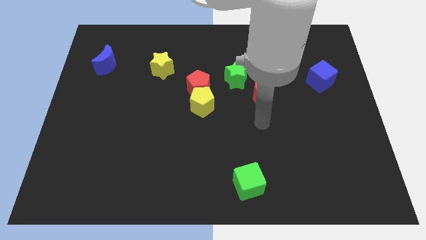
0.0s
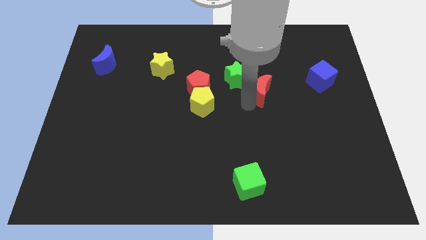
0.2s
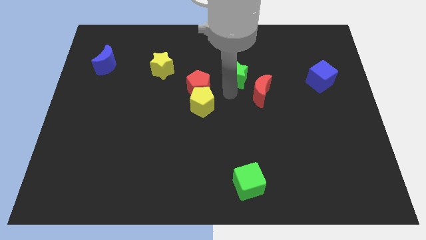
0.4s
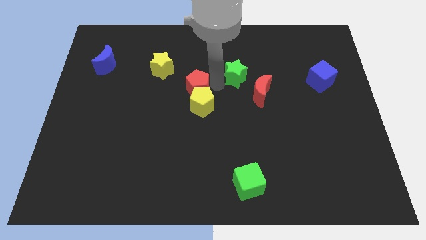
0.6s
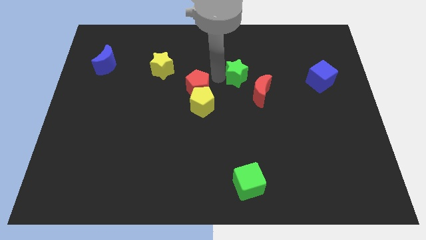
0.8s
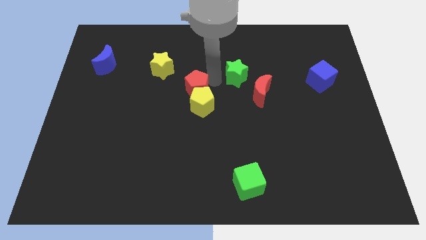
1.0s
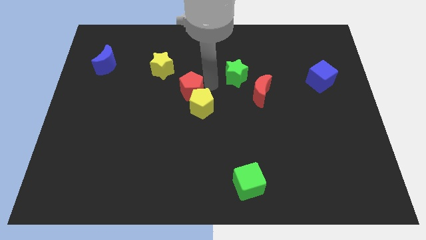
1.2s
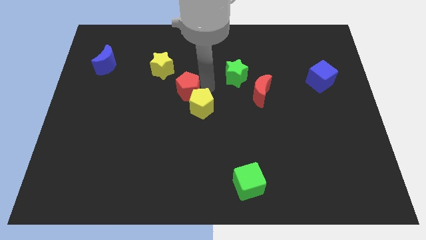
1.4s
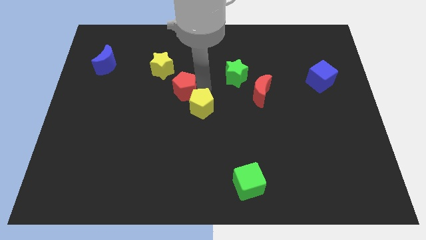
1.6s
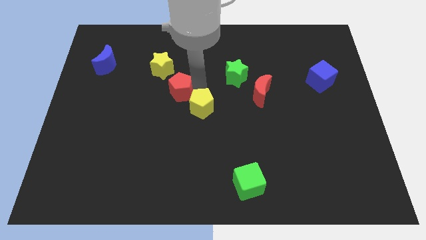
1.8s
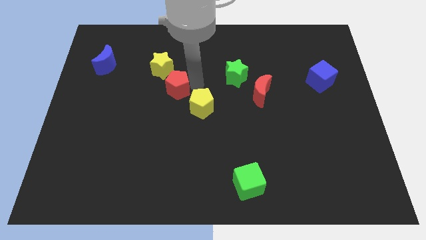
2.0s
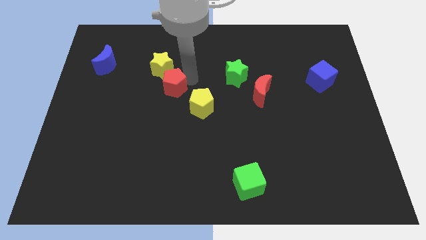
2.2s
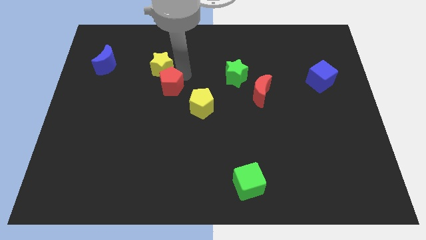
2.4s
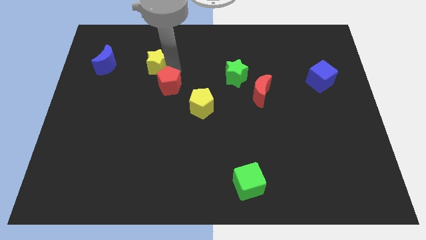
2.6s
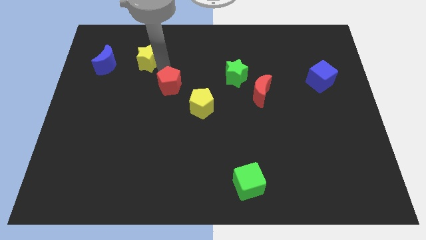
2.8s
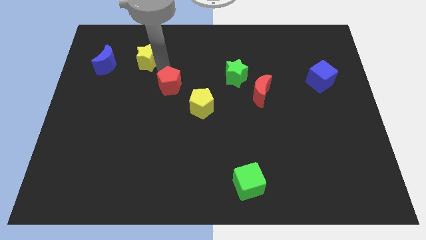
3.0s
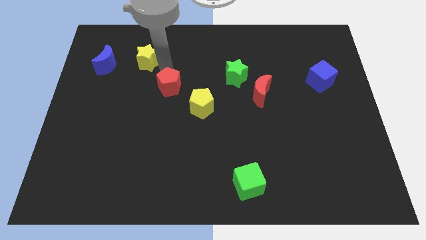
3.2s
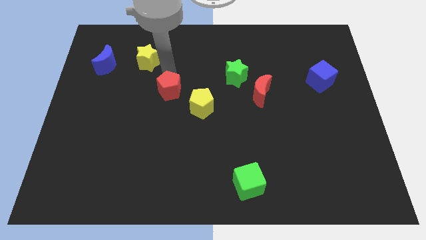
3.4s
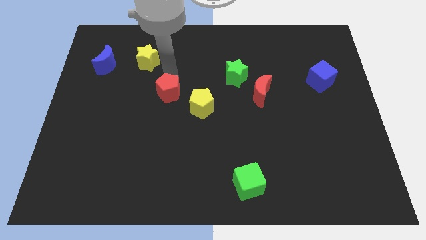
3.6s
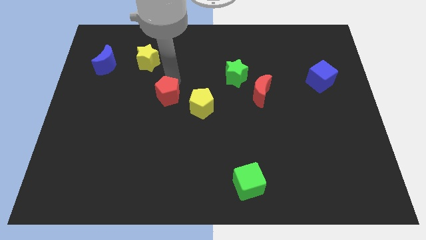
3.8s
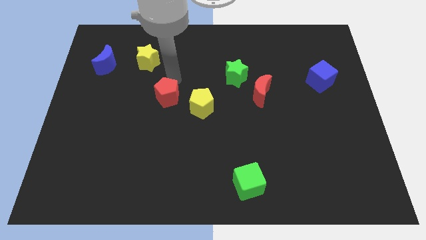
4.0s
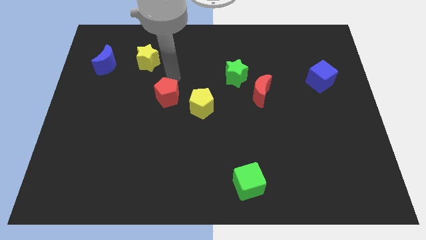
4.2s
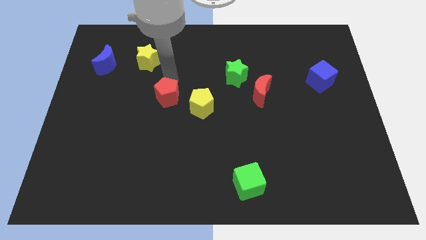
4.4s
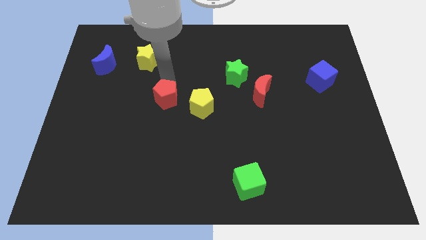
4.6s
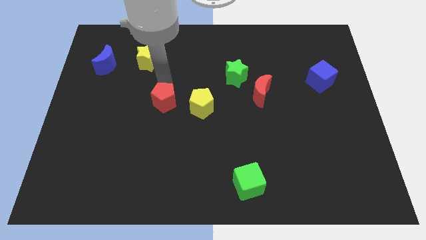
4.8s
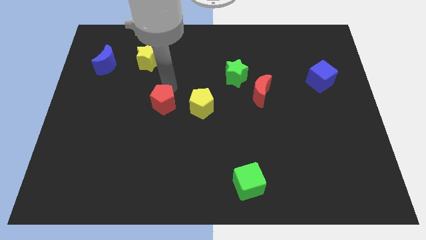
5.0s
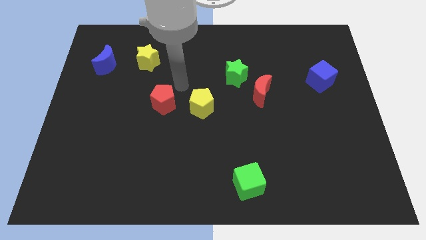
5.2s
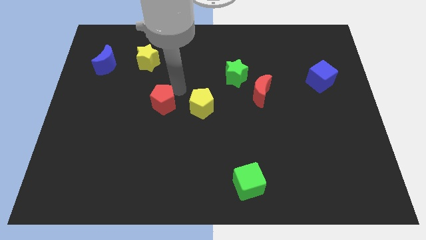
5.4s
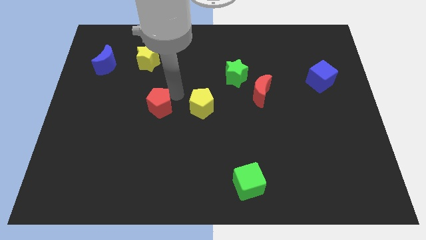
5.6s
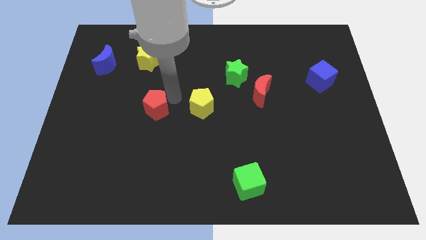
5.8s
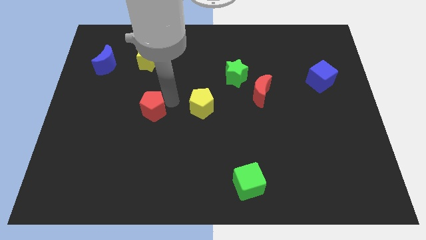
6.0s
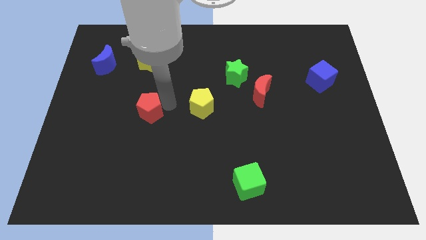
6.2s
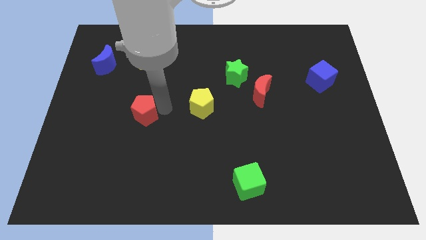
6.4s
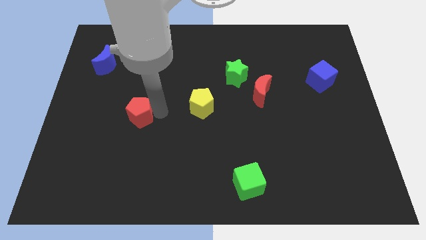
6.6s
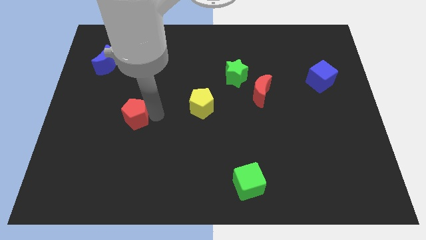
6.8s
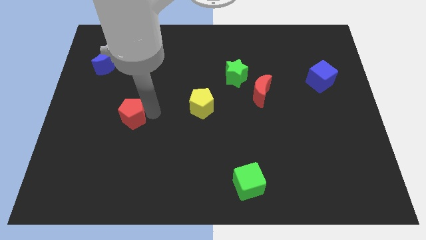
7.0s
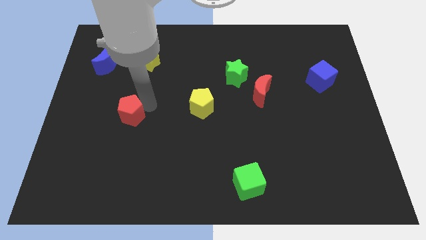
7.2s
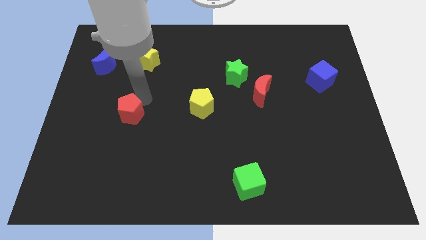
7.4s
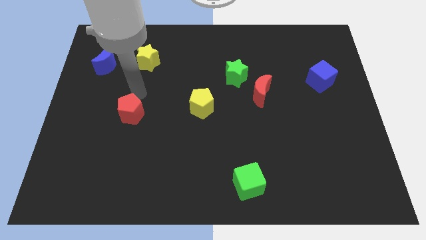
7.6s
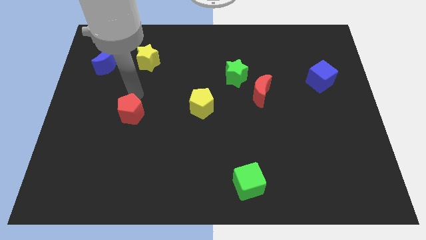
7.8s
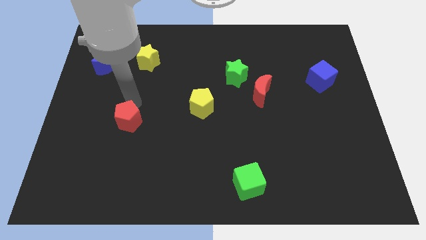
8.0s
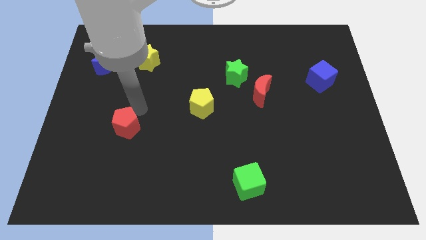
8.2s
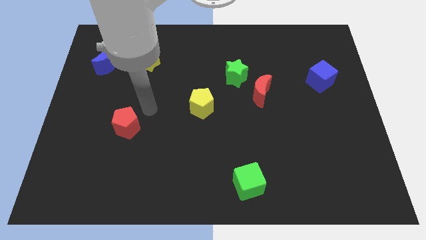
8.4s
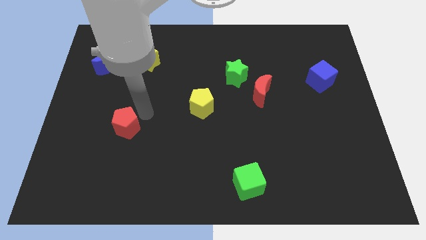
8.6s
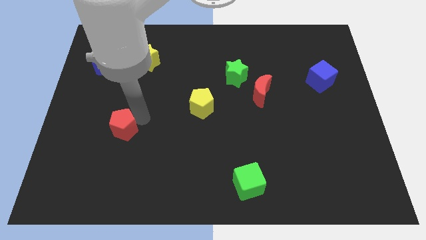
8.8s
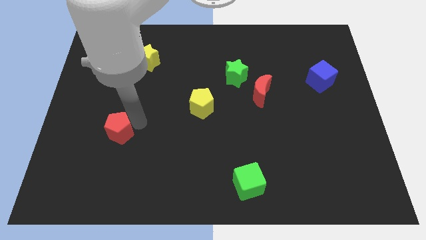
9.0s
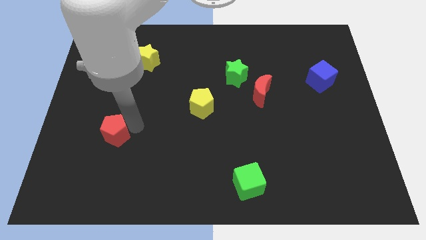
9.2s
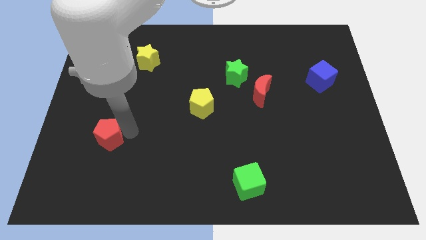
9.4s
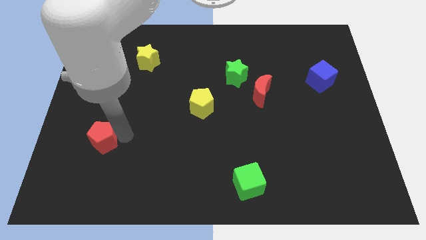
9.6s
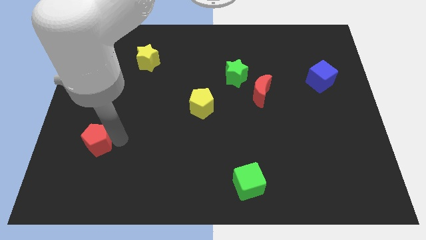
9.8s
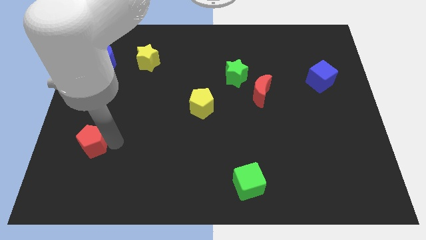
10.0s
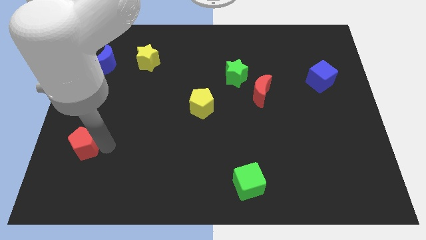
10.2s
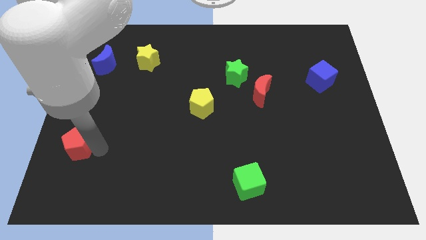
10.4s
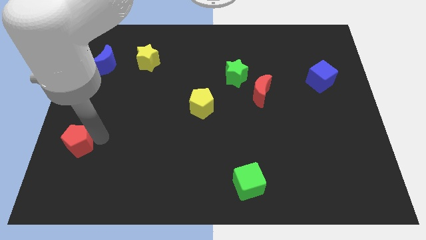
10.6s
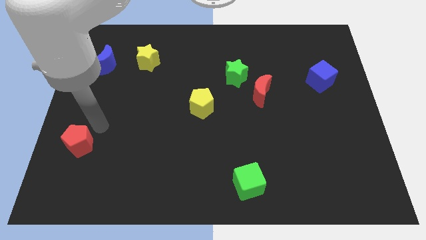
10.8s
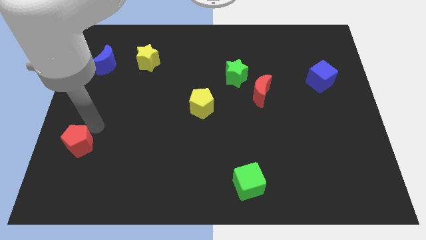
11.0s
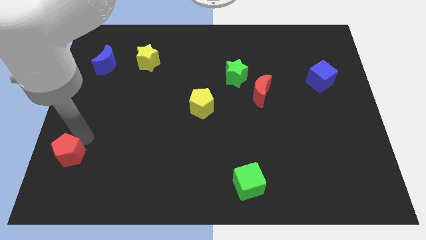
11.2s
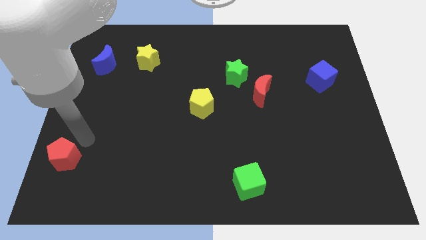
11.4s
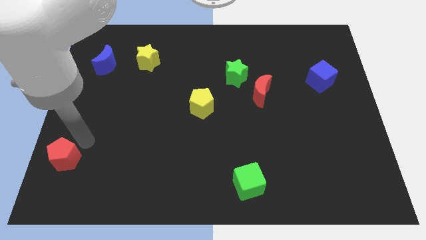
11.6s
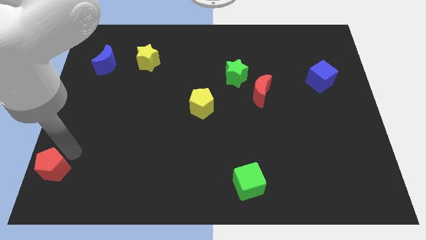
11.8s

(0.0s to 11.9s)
put the red pentagon to the bottom left corner

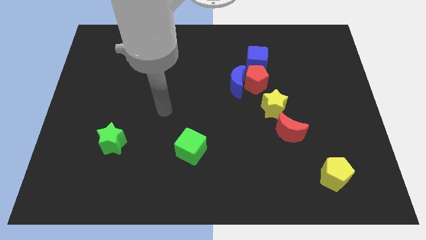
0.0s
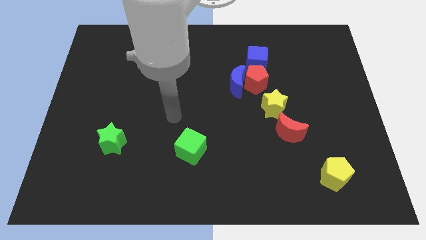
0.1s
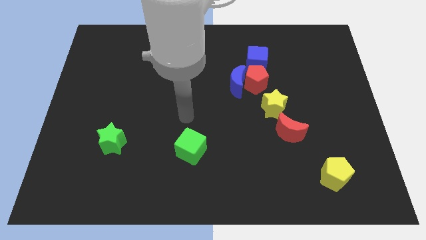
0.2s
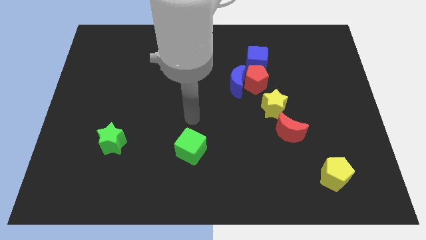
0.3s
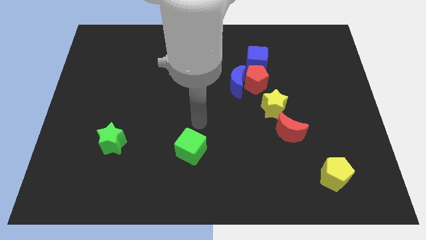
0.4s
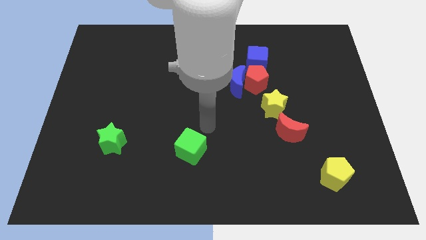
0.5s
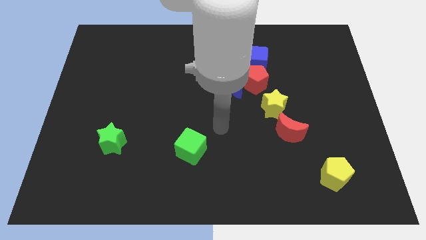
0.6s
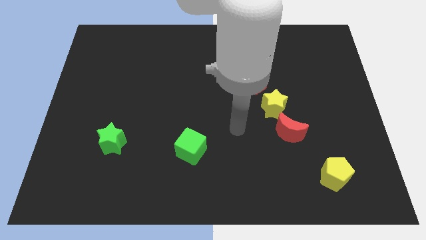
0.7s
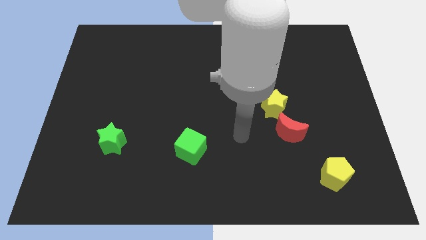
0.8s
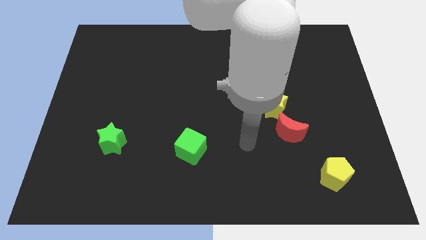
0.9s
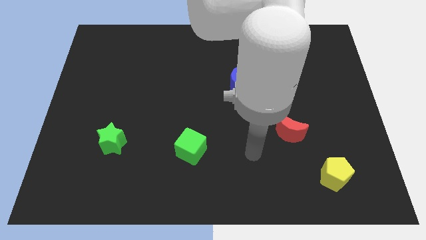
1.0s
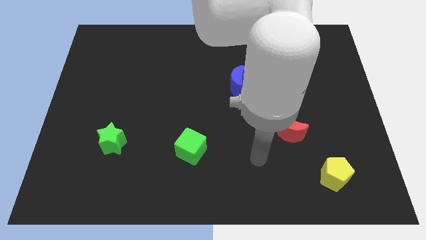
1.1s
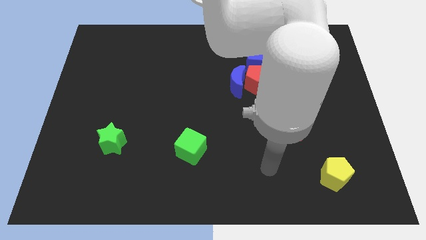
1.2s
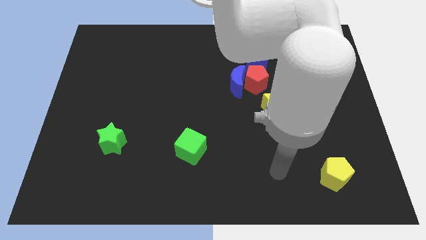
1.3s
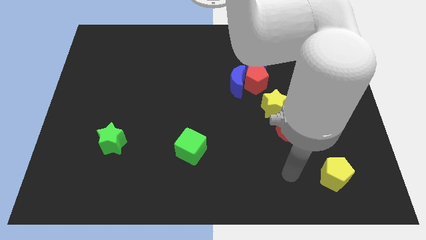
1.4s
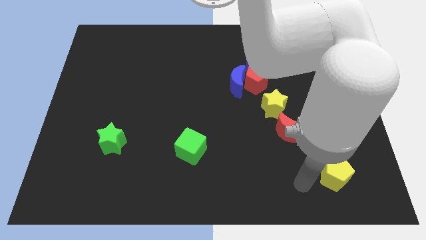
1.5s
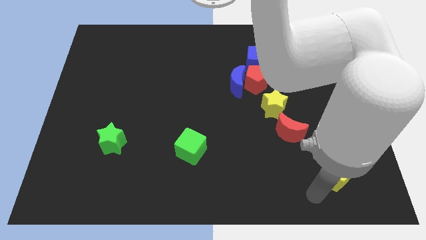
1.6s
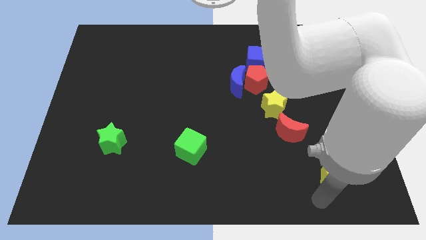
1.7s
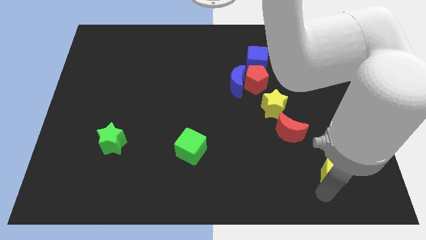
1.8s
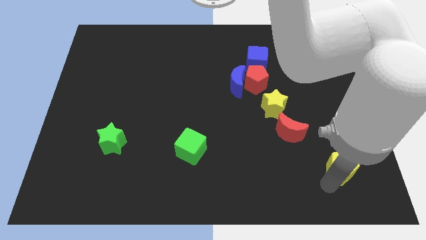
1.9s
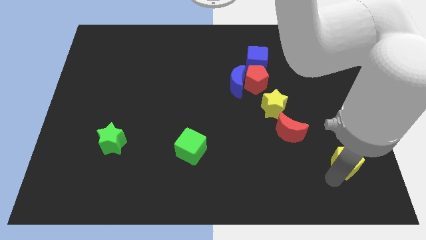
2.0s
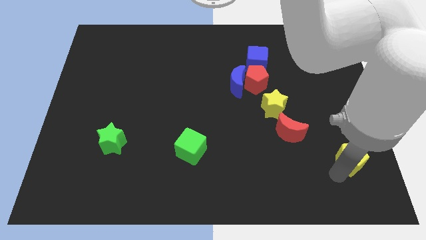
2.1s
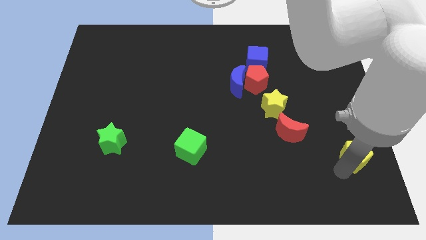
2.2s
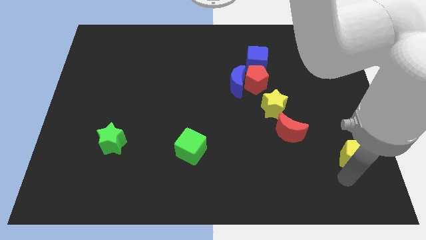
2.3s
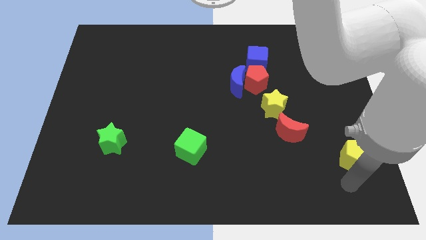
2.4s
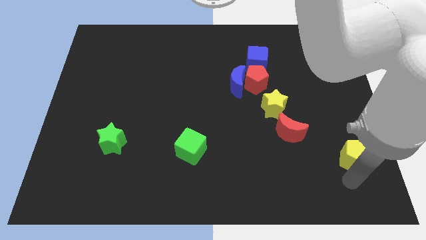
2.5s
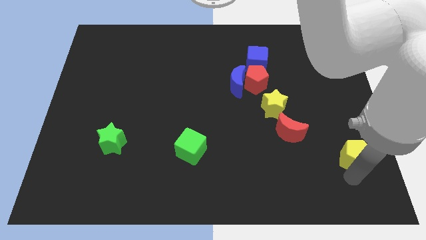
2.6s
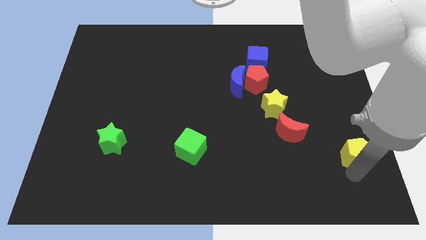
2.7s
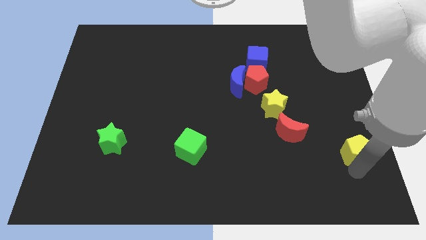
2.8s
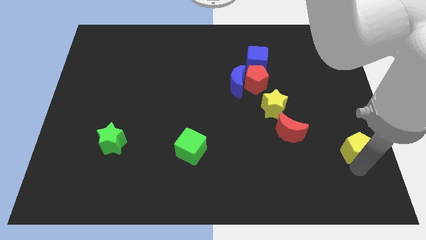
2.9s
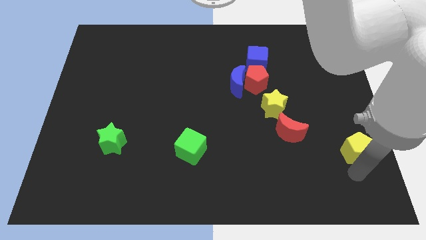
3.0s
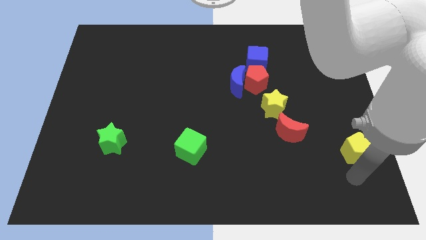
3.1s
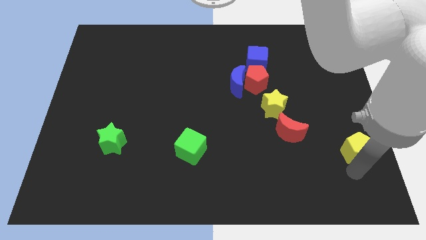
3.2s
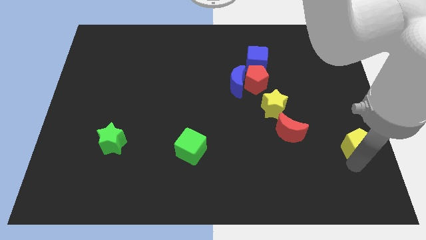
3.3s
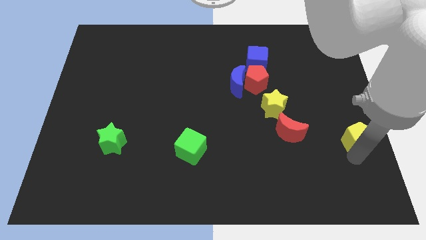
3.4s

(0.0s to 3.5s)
push the yellow pentagon to the right side
